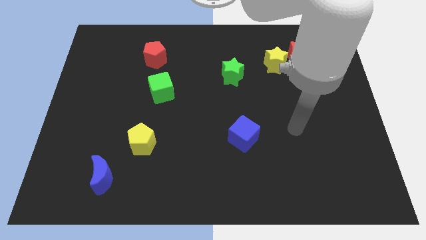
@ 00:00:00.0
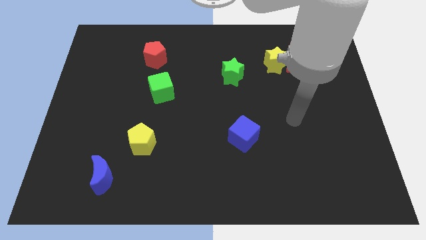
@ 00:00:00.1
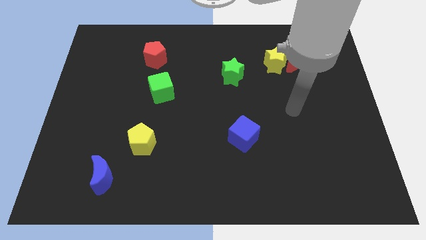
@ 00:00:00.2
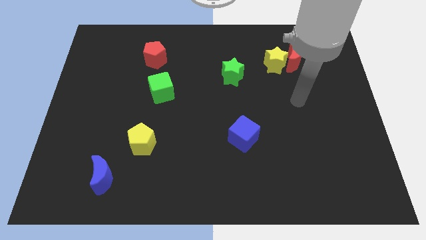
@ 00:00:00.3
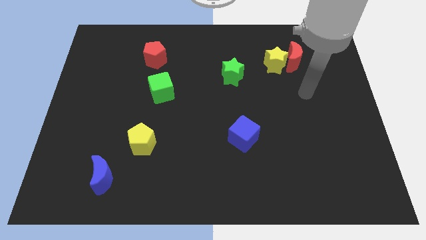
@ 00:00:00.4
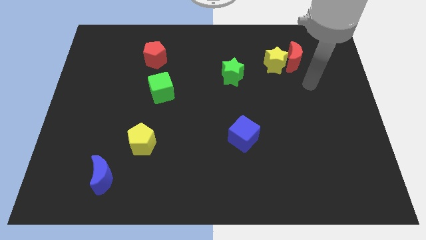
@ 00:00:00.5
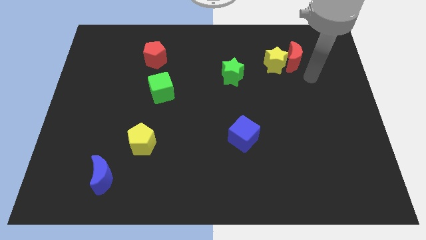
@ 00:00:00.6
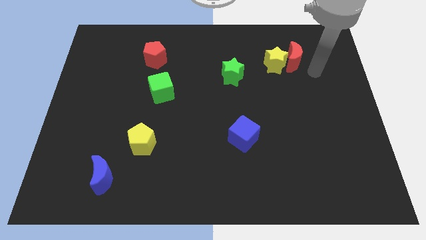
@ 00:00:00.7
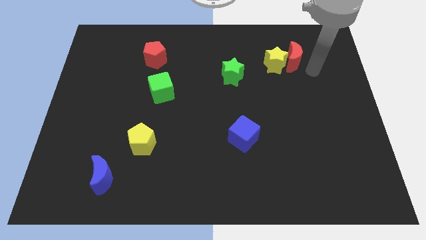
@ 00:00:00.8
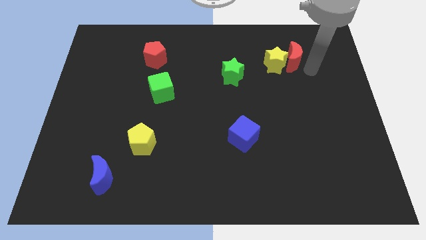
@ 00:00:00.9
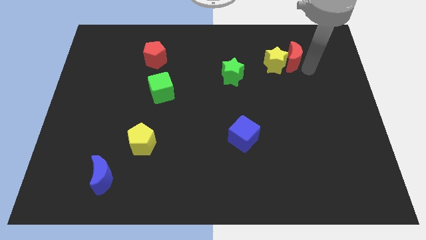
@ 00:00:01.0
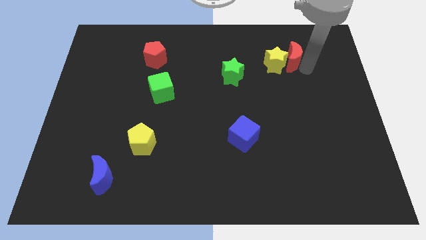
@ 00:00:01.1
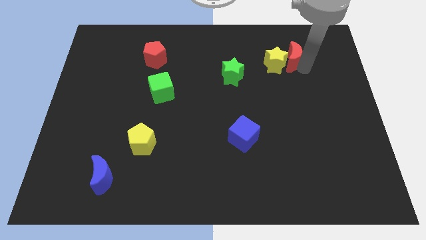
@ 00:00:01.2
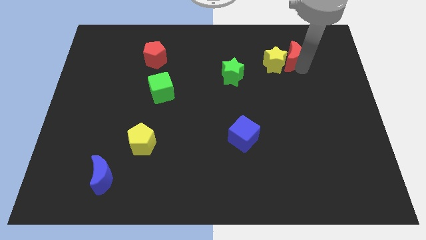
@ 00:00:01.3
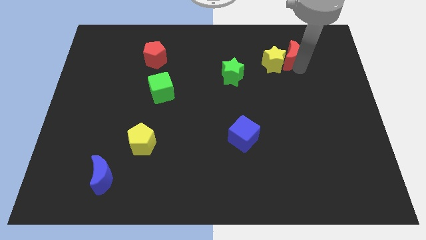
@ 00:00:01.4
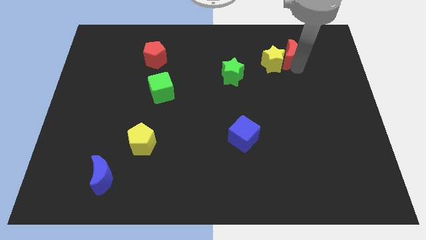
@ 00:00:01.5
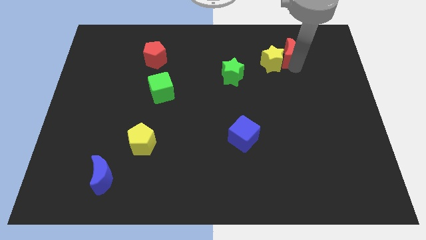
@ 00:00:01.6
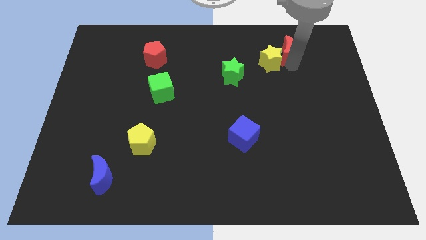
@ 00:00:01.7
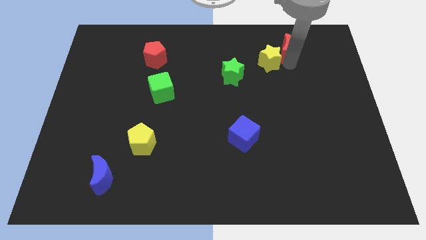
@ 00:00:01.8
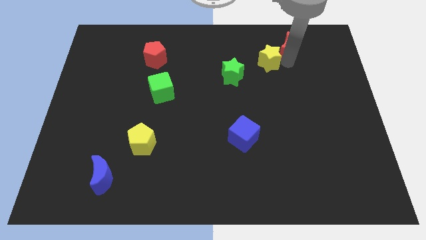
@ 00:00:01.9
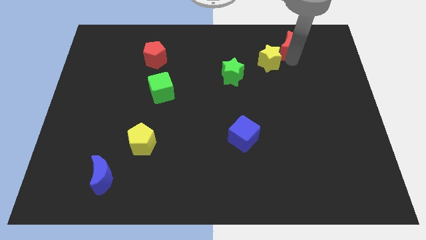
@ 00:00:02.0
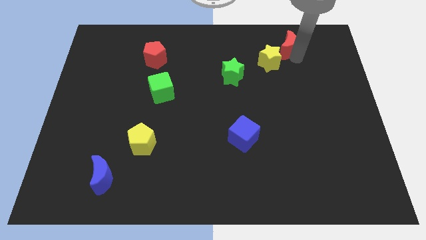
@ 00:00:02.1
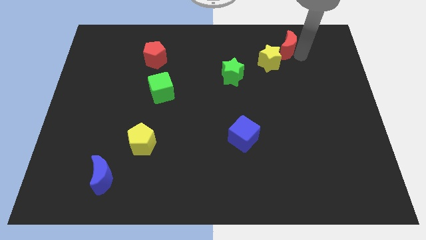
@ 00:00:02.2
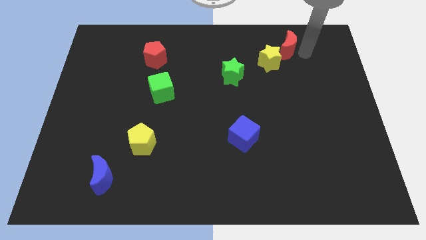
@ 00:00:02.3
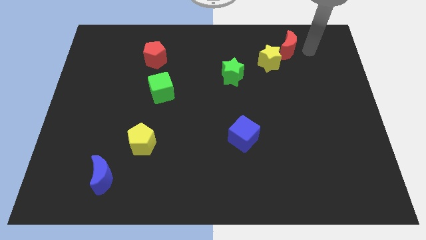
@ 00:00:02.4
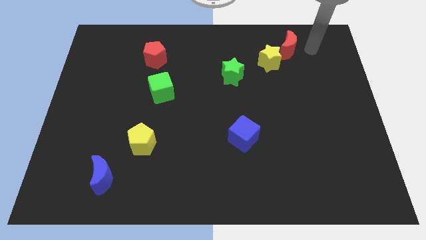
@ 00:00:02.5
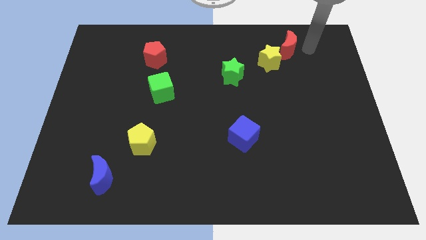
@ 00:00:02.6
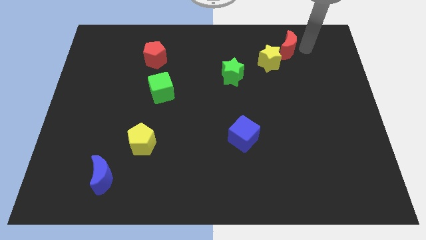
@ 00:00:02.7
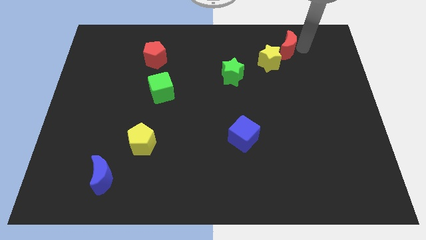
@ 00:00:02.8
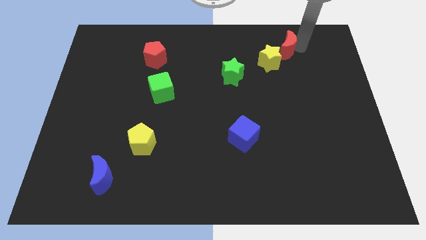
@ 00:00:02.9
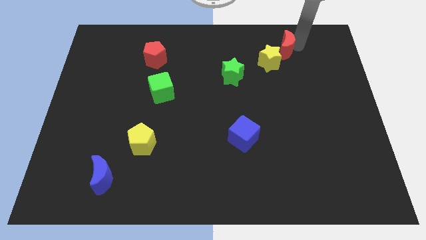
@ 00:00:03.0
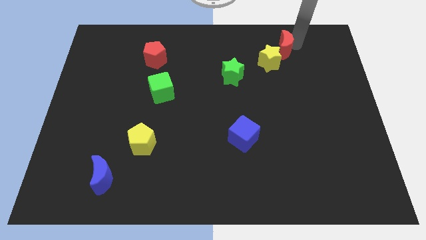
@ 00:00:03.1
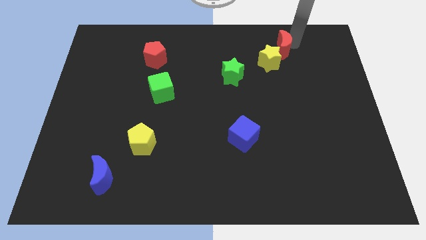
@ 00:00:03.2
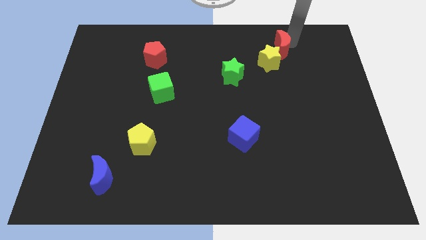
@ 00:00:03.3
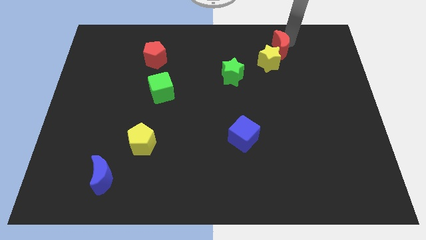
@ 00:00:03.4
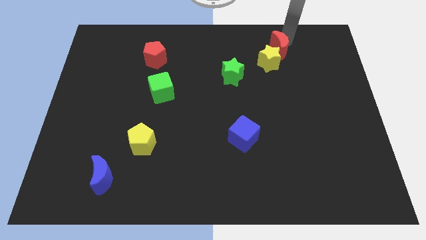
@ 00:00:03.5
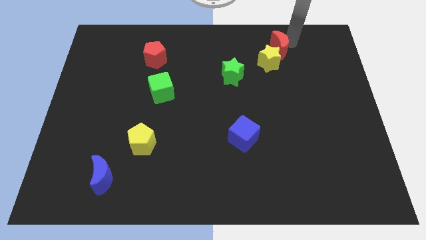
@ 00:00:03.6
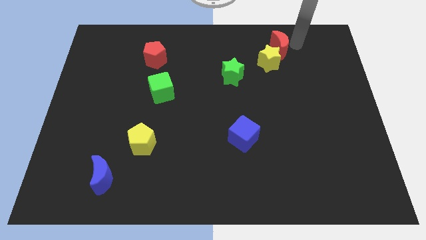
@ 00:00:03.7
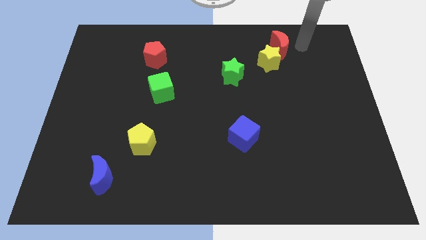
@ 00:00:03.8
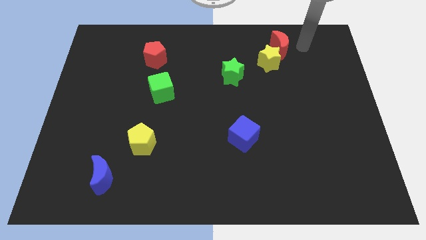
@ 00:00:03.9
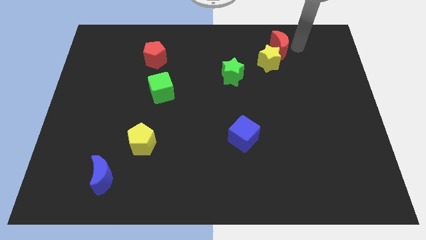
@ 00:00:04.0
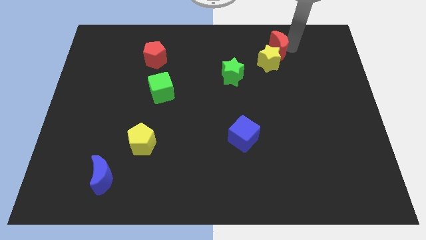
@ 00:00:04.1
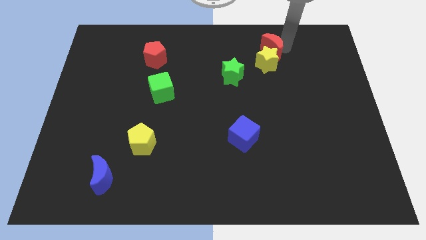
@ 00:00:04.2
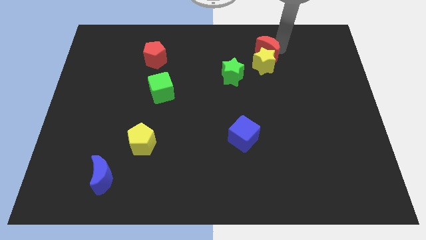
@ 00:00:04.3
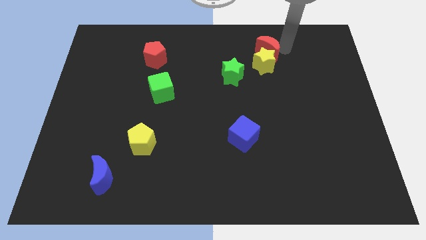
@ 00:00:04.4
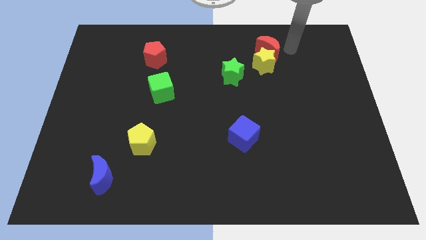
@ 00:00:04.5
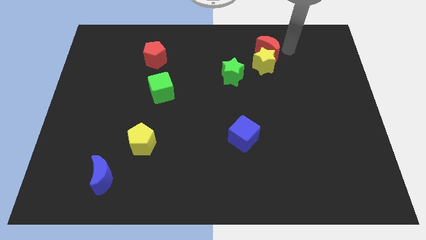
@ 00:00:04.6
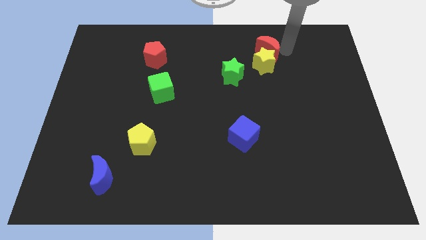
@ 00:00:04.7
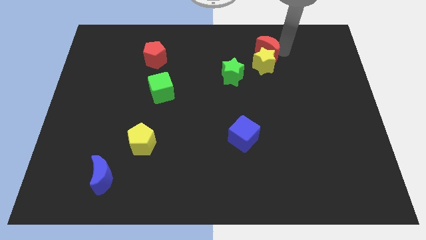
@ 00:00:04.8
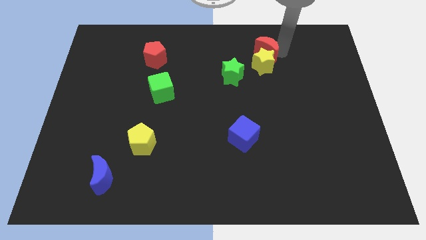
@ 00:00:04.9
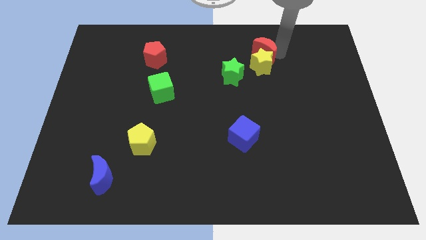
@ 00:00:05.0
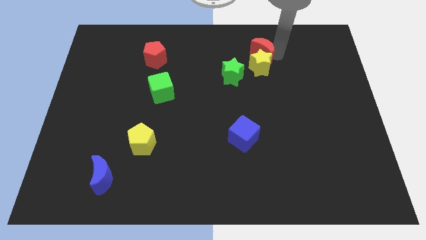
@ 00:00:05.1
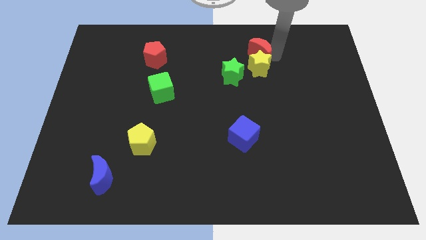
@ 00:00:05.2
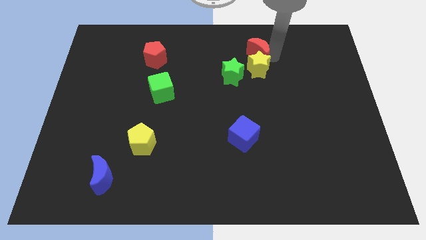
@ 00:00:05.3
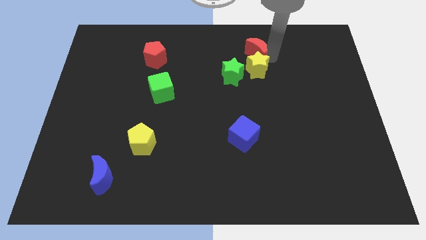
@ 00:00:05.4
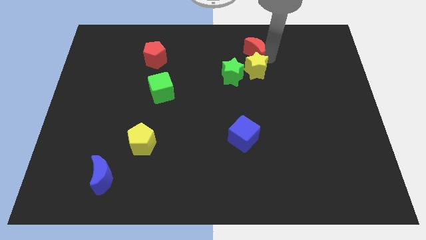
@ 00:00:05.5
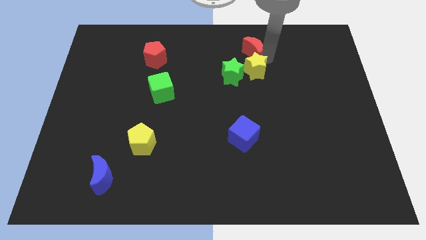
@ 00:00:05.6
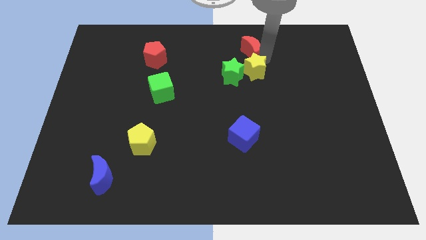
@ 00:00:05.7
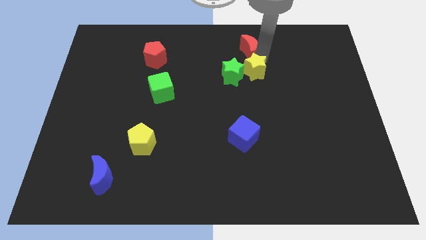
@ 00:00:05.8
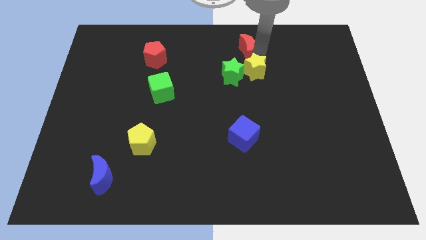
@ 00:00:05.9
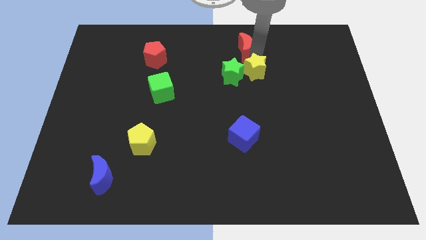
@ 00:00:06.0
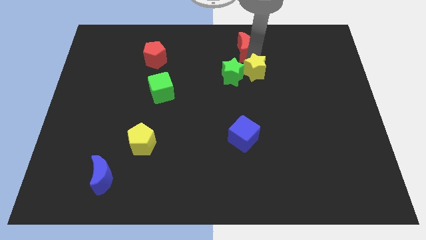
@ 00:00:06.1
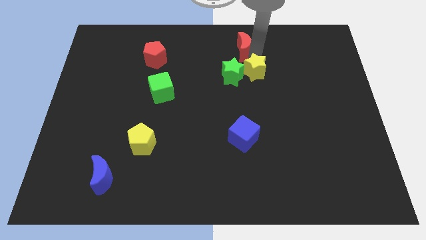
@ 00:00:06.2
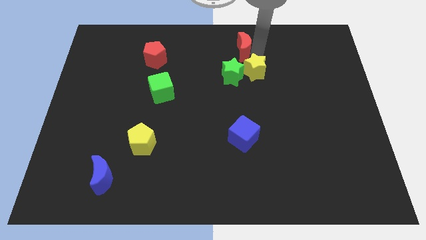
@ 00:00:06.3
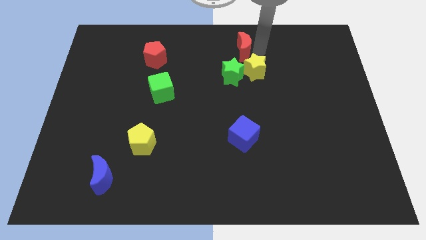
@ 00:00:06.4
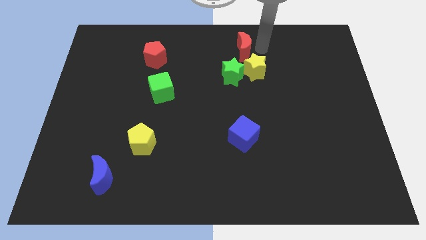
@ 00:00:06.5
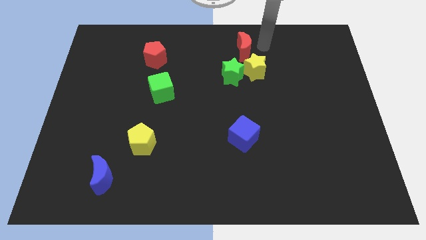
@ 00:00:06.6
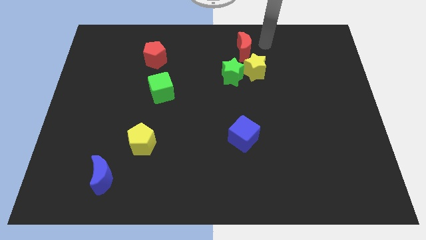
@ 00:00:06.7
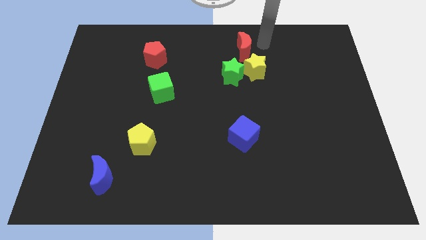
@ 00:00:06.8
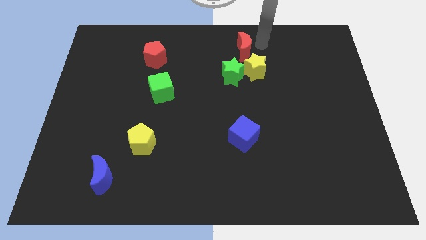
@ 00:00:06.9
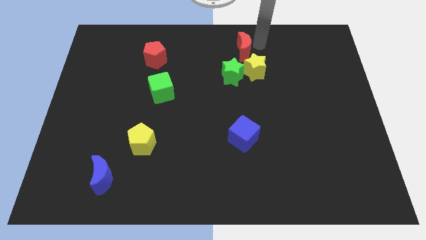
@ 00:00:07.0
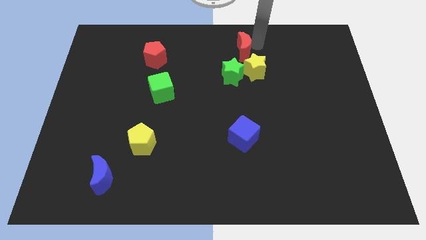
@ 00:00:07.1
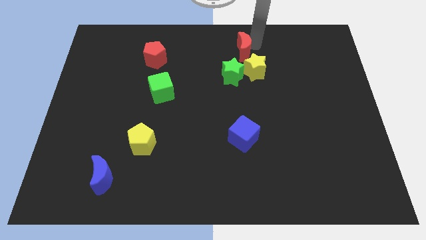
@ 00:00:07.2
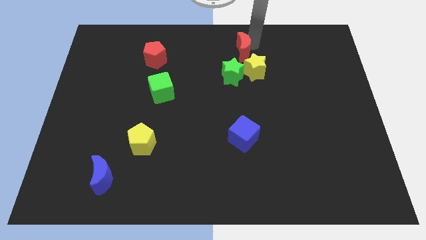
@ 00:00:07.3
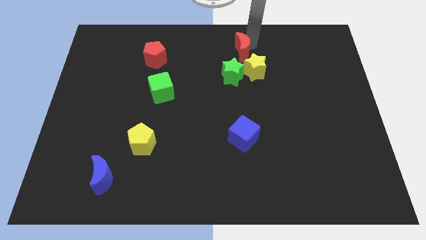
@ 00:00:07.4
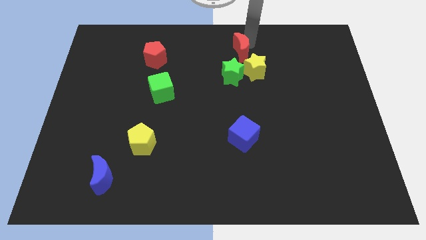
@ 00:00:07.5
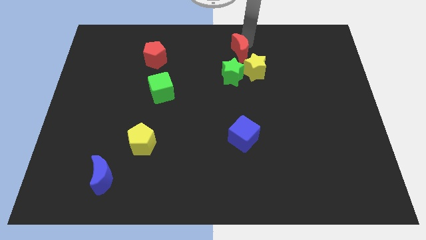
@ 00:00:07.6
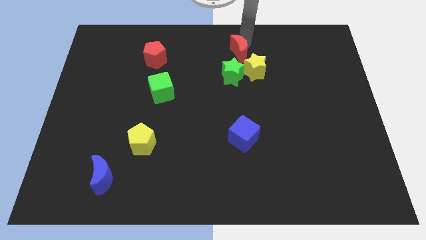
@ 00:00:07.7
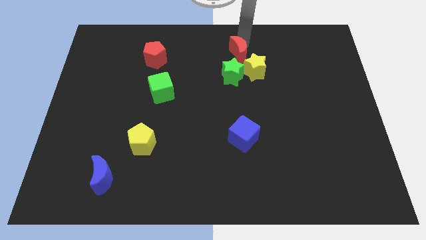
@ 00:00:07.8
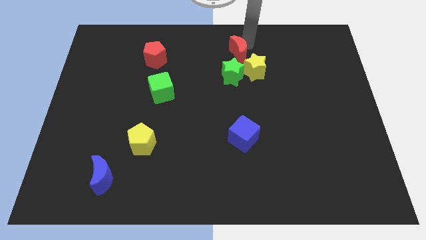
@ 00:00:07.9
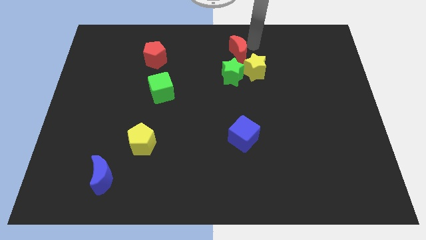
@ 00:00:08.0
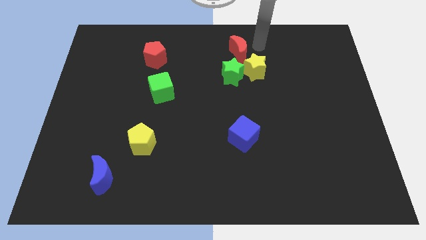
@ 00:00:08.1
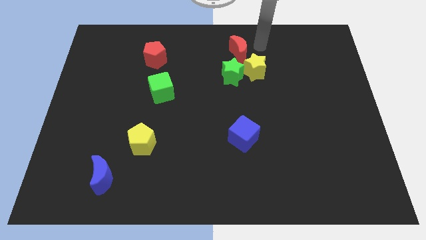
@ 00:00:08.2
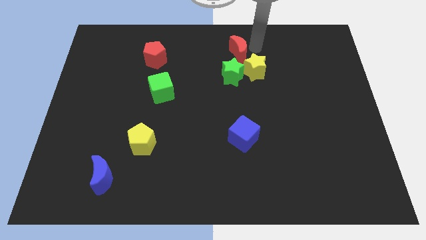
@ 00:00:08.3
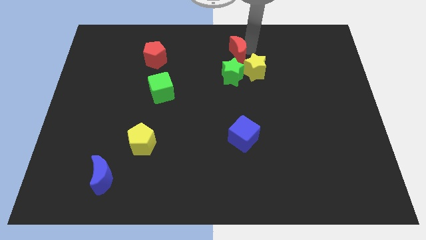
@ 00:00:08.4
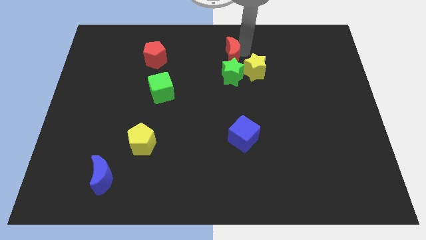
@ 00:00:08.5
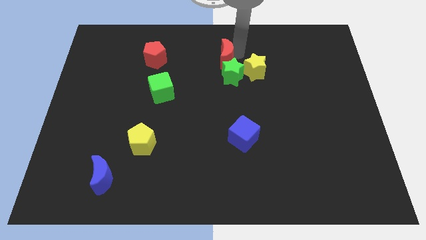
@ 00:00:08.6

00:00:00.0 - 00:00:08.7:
put the red moon to the top left side of the green star
